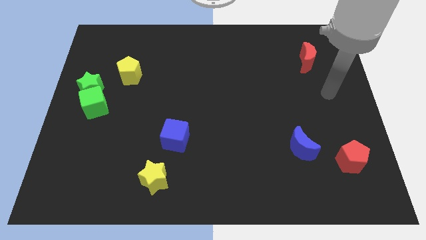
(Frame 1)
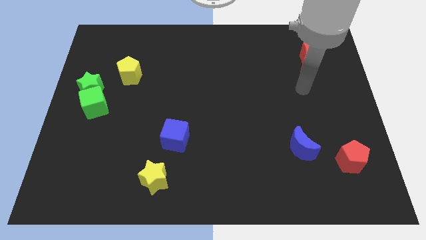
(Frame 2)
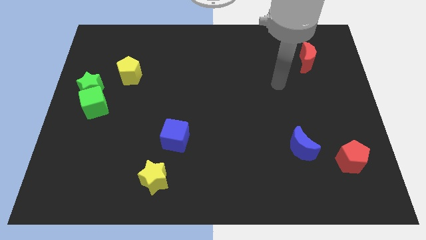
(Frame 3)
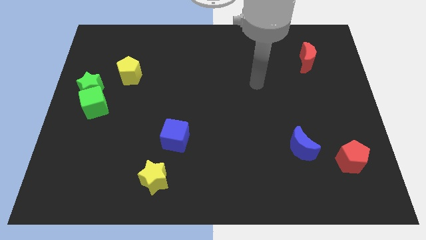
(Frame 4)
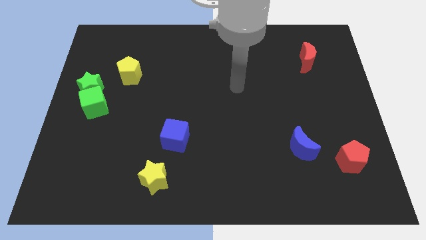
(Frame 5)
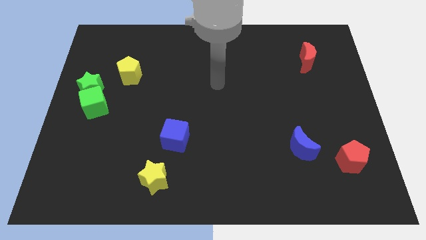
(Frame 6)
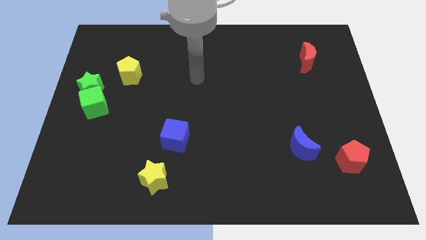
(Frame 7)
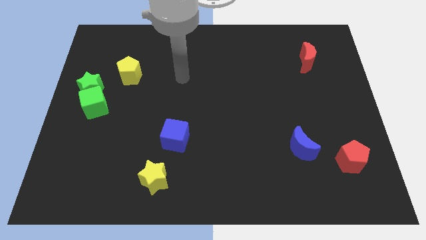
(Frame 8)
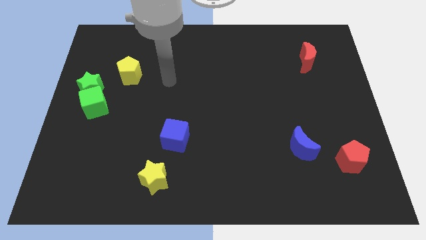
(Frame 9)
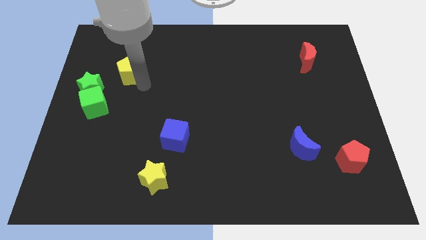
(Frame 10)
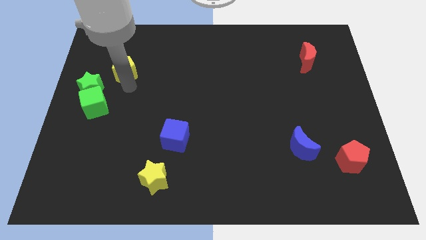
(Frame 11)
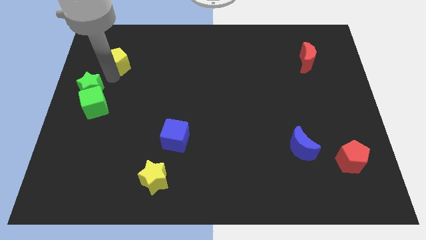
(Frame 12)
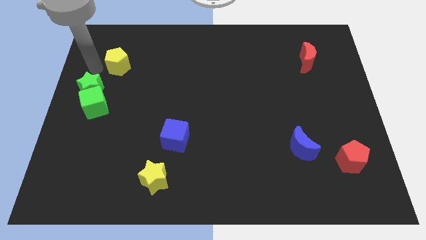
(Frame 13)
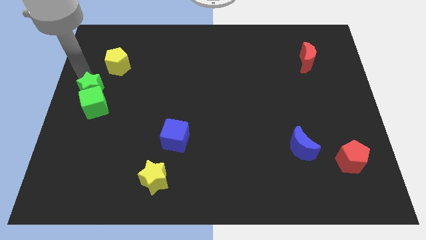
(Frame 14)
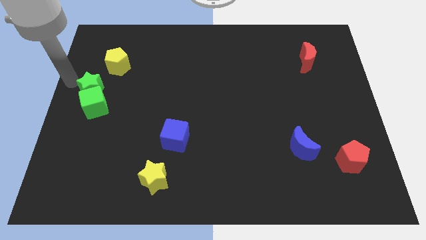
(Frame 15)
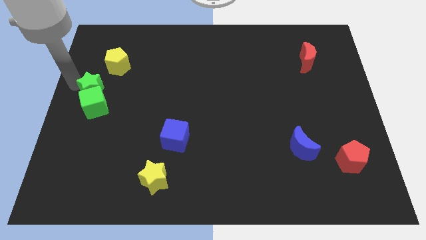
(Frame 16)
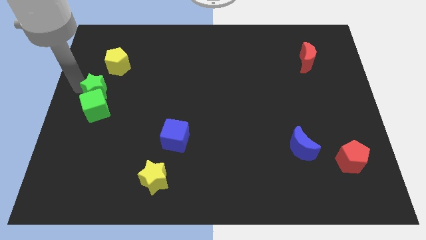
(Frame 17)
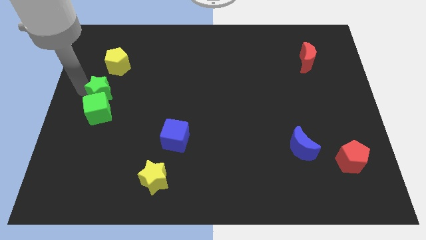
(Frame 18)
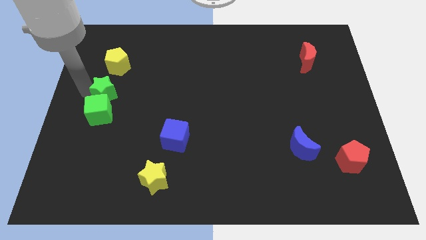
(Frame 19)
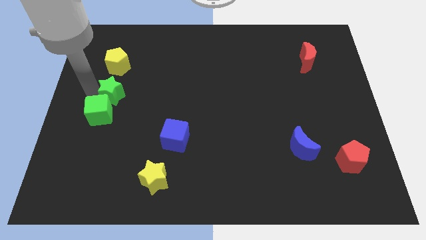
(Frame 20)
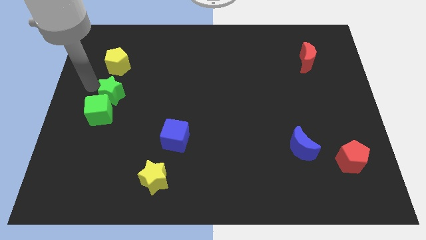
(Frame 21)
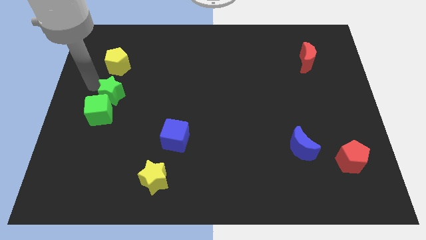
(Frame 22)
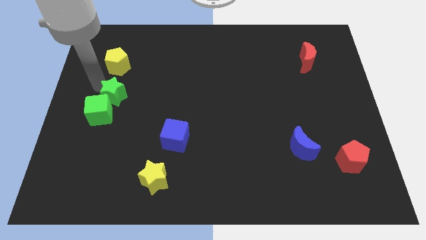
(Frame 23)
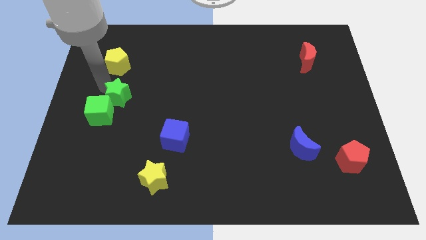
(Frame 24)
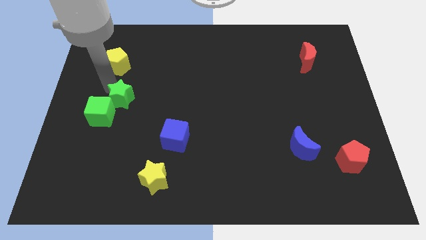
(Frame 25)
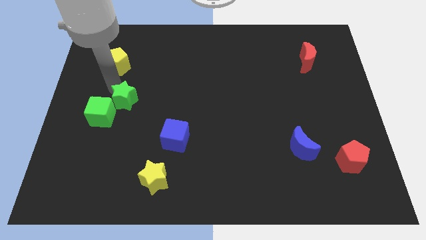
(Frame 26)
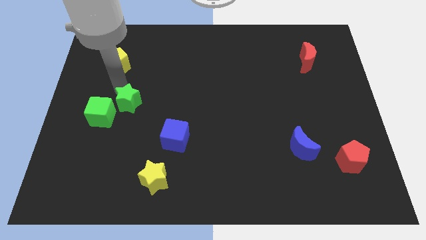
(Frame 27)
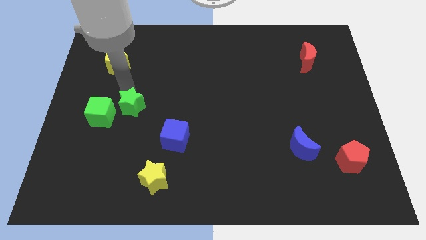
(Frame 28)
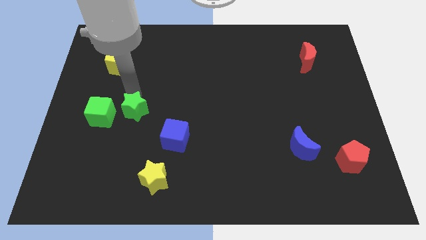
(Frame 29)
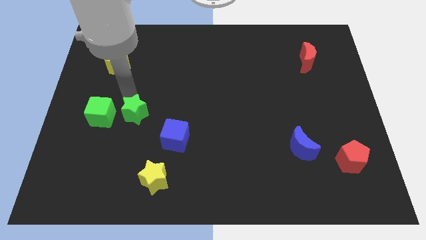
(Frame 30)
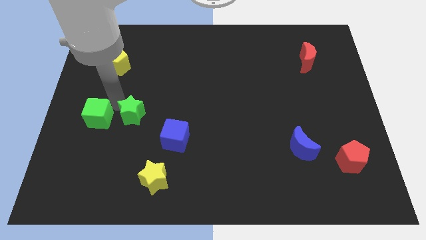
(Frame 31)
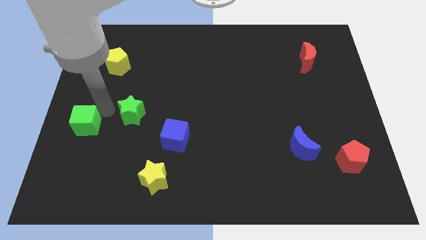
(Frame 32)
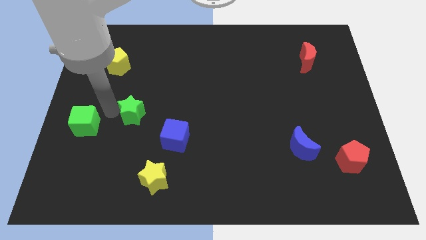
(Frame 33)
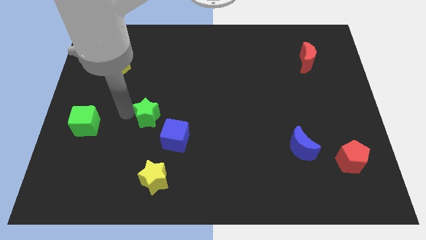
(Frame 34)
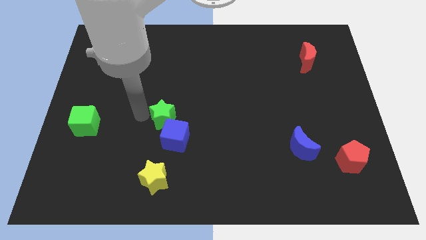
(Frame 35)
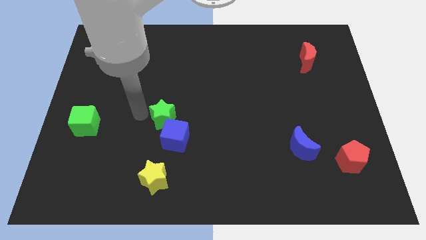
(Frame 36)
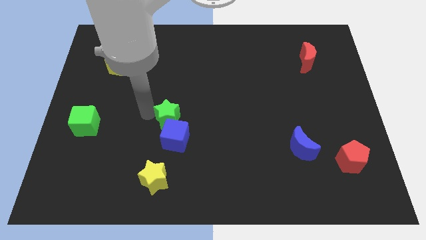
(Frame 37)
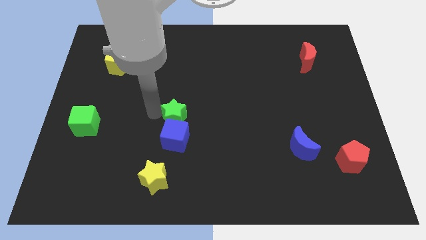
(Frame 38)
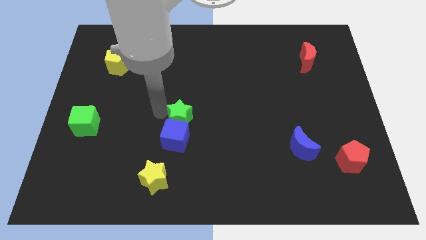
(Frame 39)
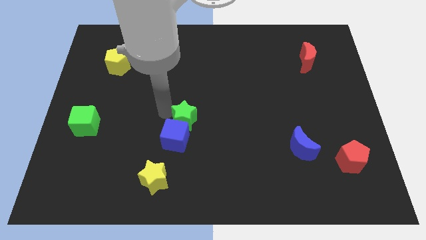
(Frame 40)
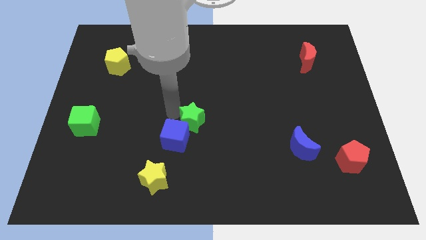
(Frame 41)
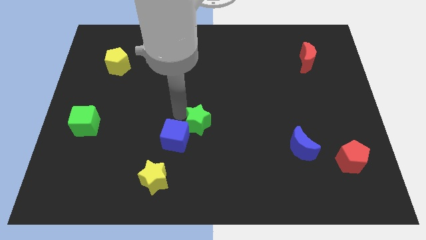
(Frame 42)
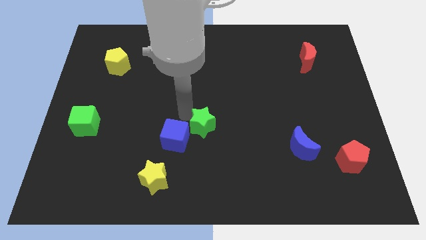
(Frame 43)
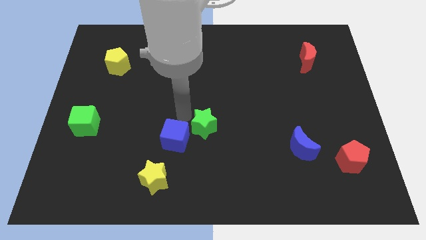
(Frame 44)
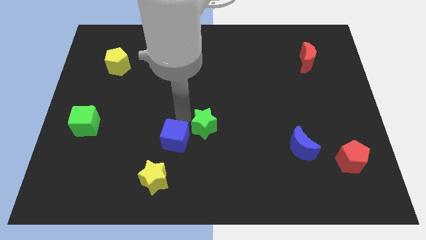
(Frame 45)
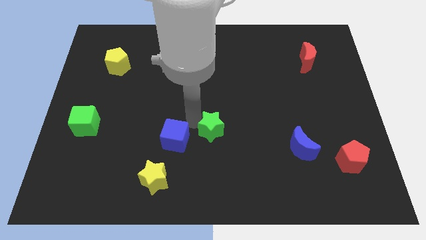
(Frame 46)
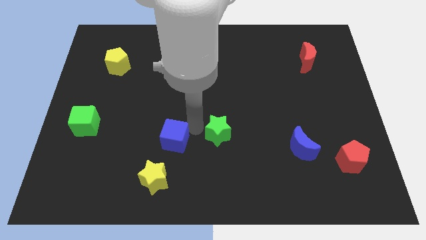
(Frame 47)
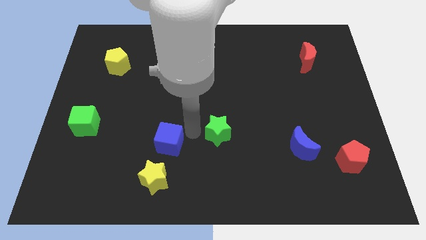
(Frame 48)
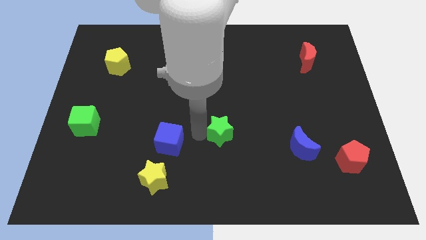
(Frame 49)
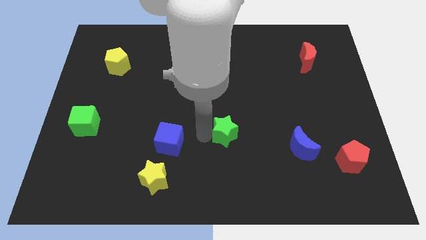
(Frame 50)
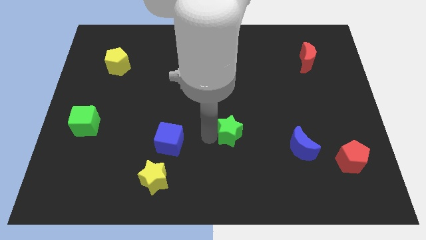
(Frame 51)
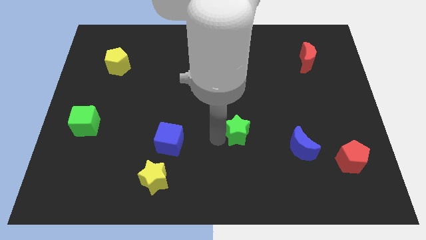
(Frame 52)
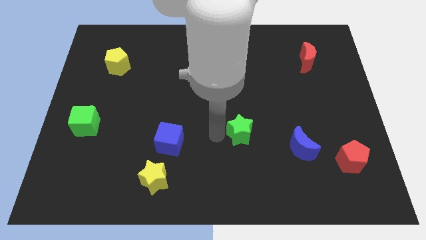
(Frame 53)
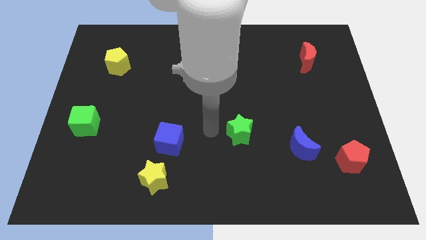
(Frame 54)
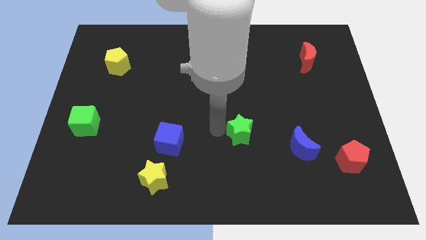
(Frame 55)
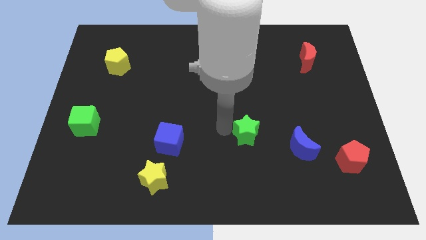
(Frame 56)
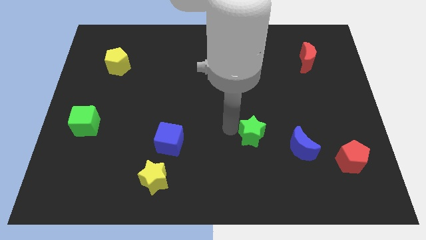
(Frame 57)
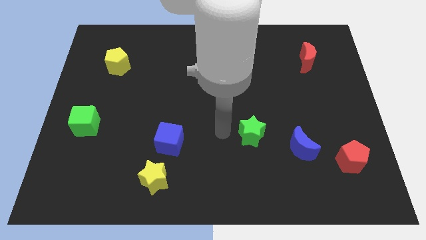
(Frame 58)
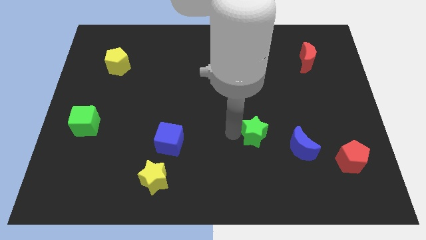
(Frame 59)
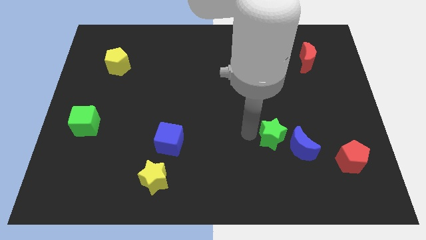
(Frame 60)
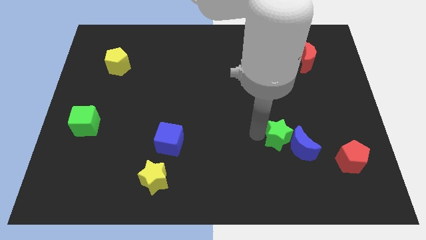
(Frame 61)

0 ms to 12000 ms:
put the green star towards the blue moon

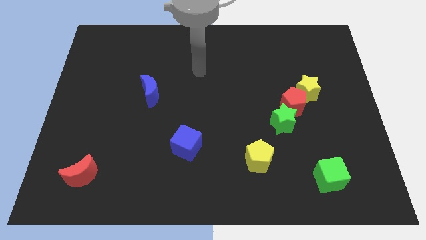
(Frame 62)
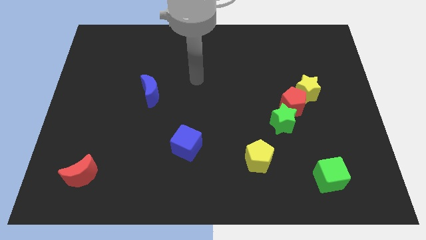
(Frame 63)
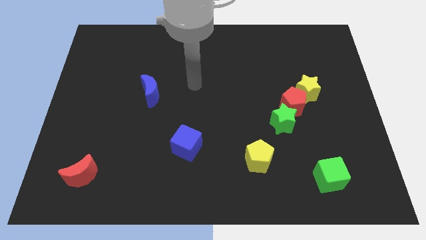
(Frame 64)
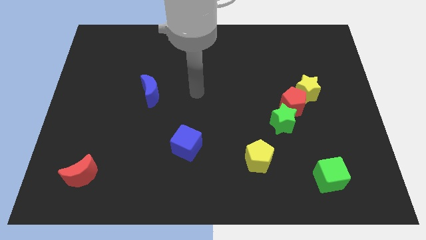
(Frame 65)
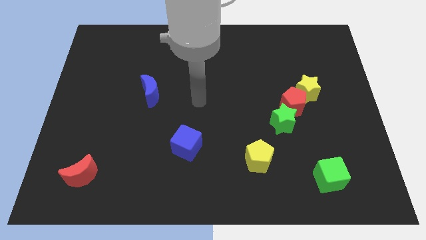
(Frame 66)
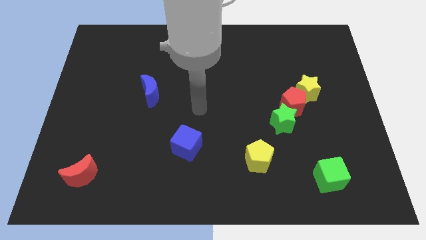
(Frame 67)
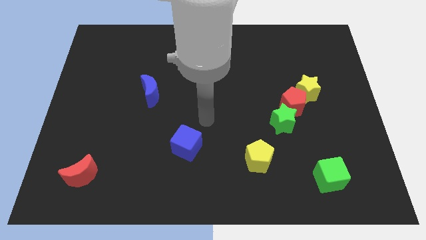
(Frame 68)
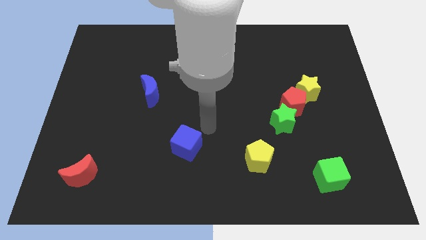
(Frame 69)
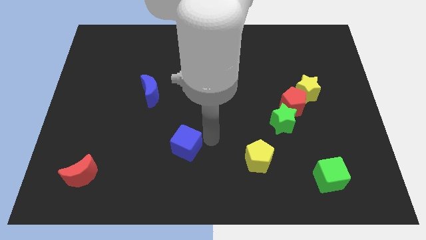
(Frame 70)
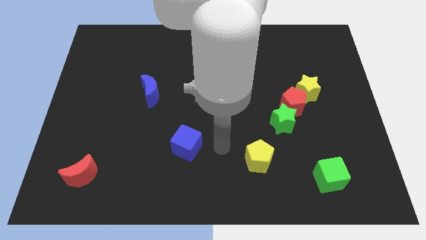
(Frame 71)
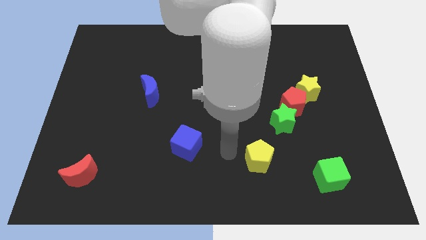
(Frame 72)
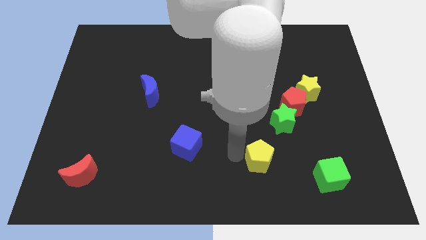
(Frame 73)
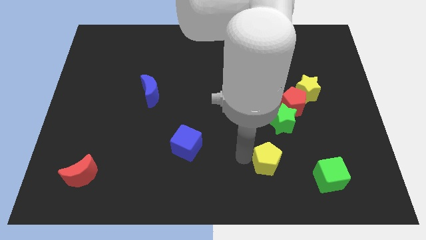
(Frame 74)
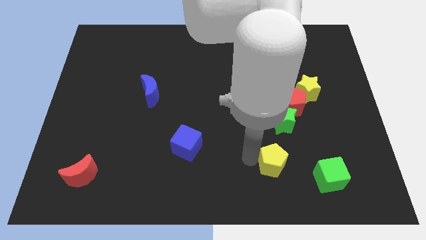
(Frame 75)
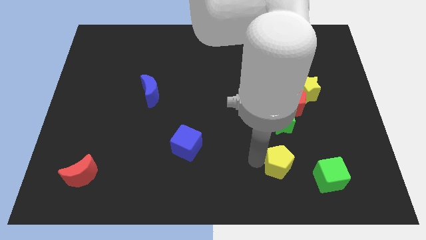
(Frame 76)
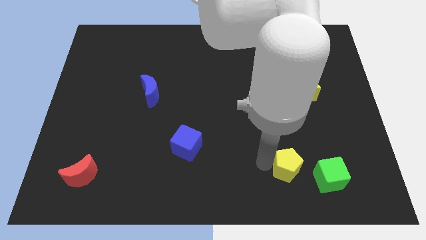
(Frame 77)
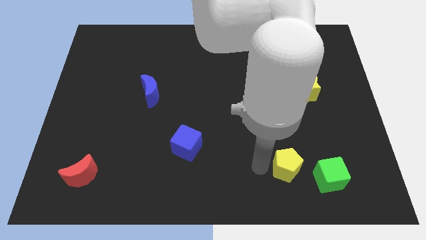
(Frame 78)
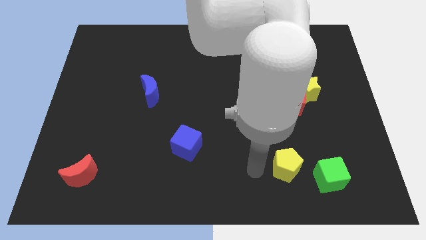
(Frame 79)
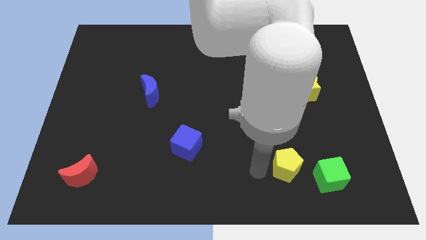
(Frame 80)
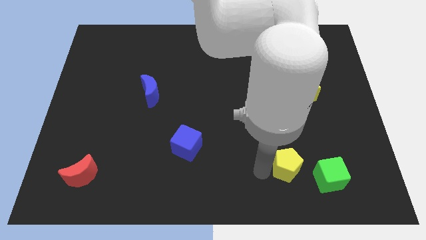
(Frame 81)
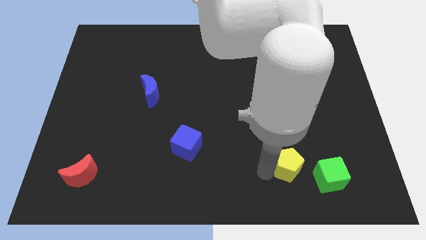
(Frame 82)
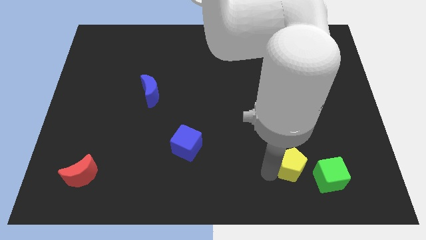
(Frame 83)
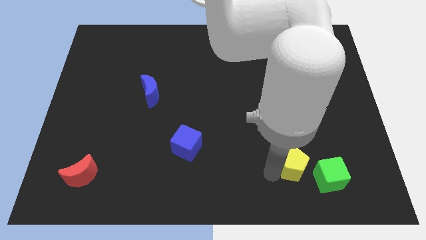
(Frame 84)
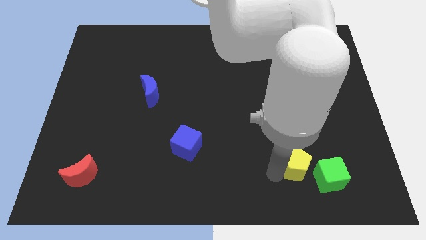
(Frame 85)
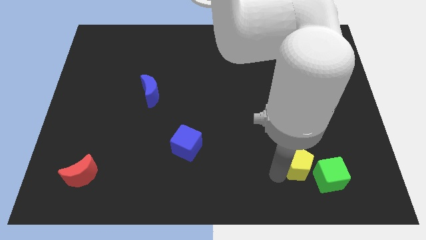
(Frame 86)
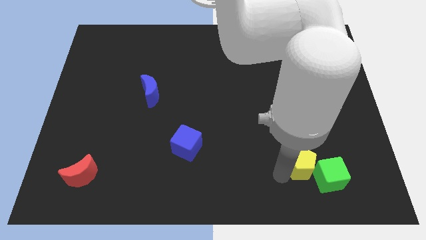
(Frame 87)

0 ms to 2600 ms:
slide the yellow pentagon to the green cube
